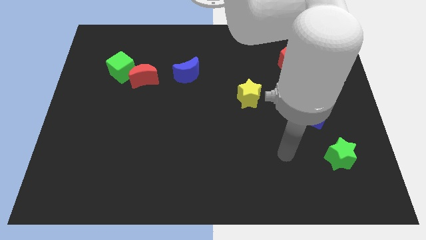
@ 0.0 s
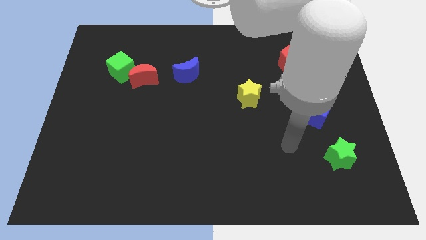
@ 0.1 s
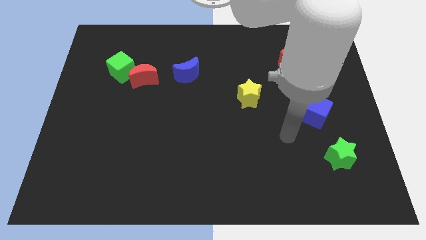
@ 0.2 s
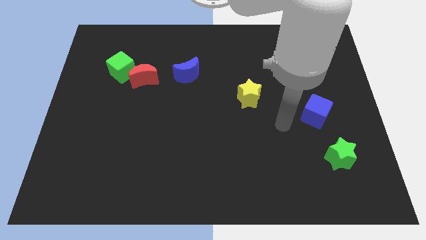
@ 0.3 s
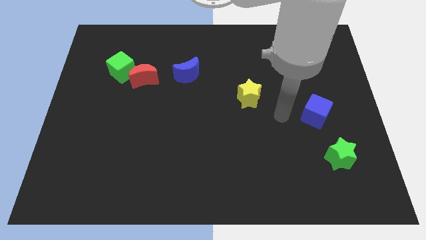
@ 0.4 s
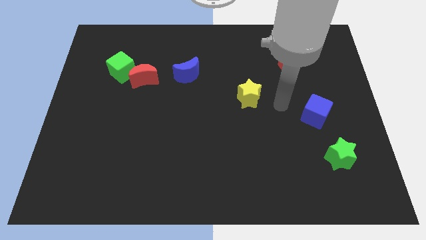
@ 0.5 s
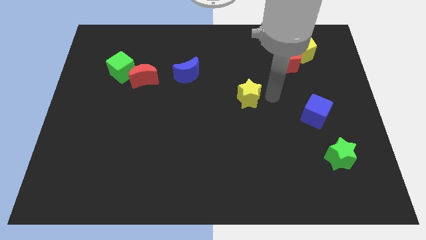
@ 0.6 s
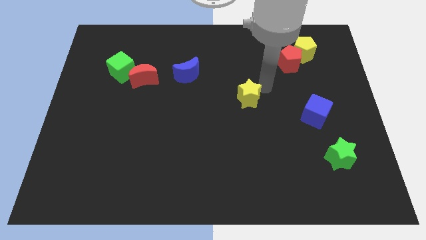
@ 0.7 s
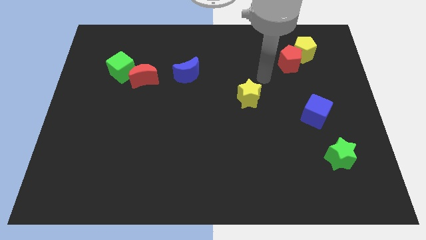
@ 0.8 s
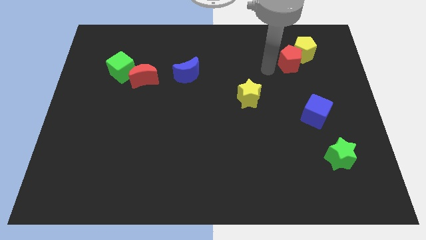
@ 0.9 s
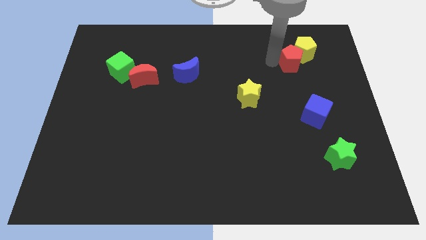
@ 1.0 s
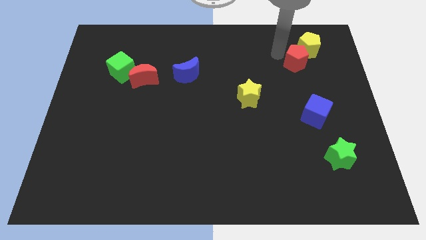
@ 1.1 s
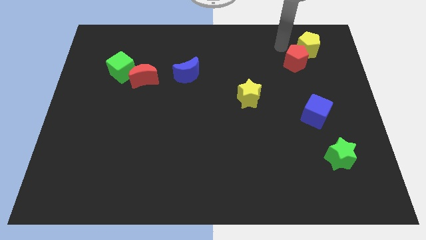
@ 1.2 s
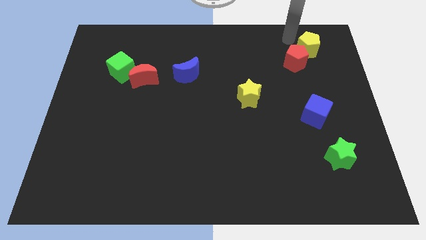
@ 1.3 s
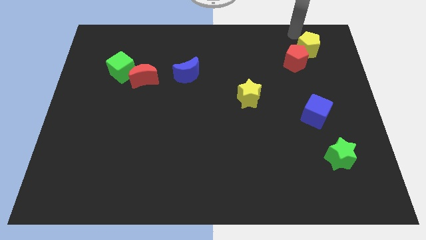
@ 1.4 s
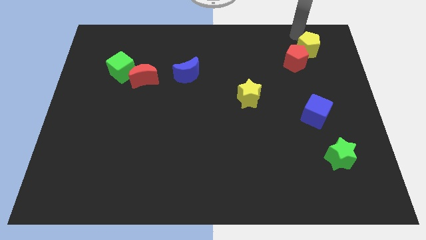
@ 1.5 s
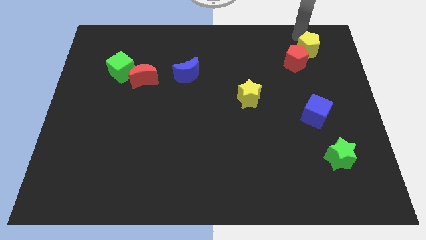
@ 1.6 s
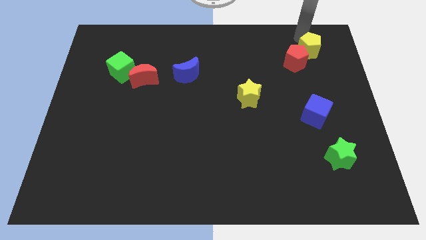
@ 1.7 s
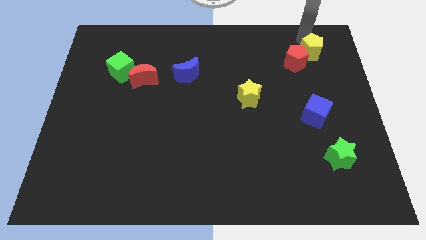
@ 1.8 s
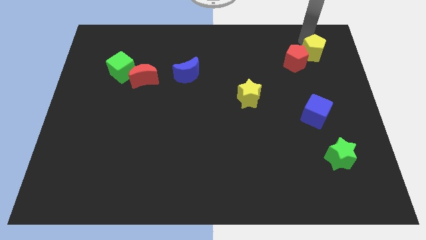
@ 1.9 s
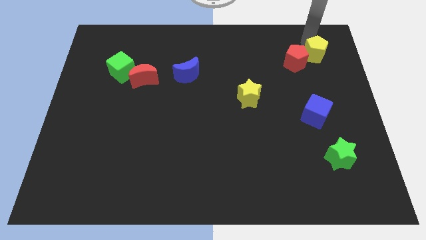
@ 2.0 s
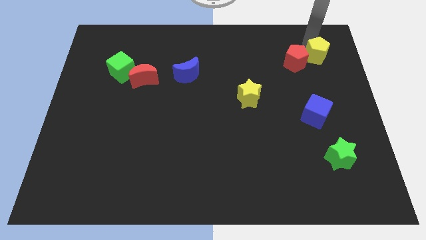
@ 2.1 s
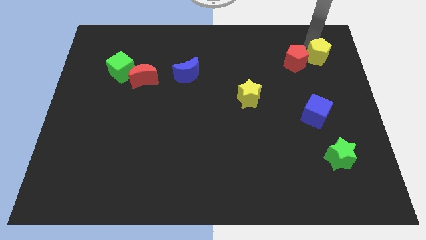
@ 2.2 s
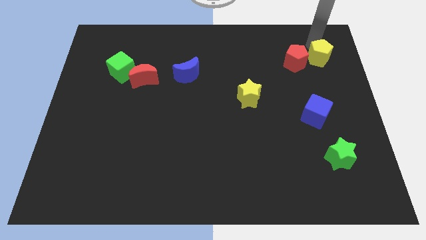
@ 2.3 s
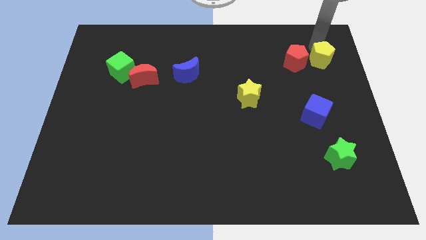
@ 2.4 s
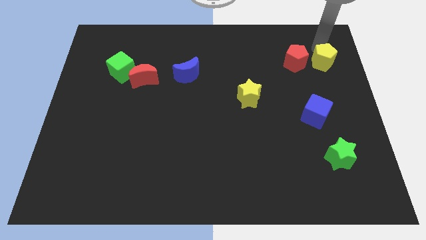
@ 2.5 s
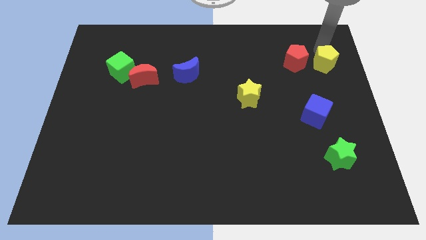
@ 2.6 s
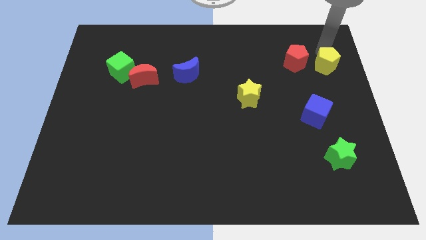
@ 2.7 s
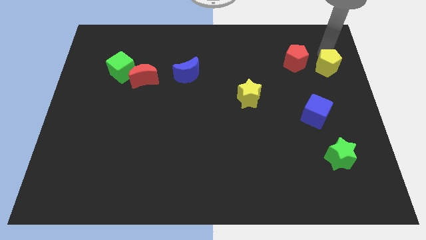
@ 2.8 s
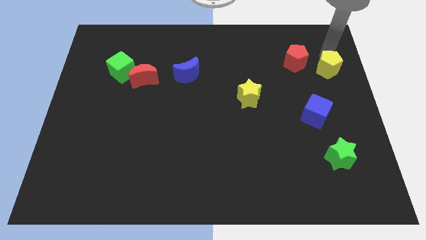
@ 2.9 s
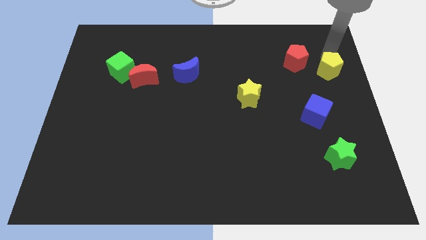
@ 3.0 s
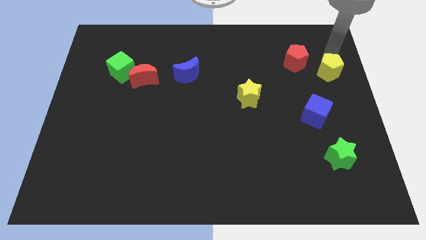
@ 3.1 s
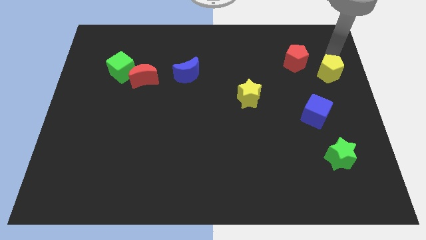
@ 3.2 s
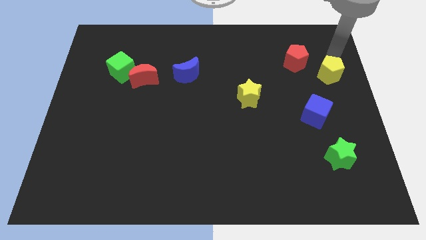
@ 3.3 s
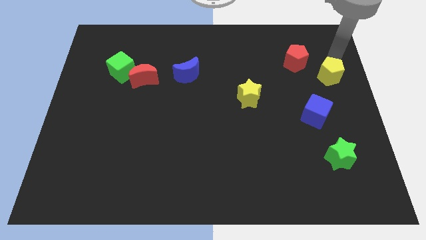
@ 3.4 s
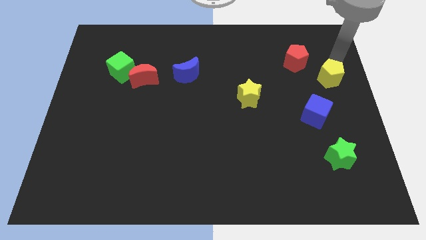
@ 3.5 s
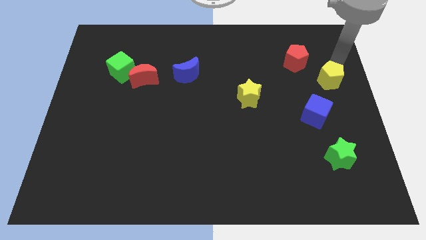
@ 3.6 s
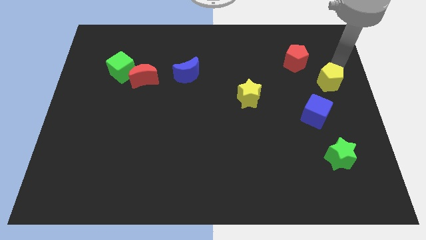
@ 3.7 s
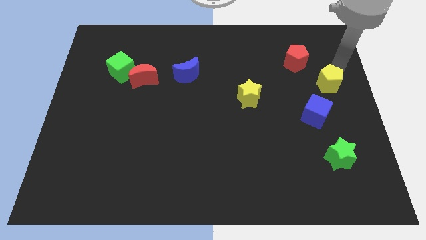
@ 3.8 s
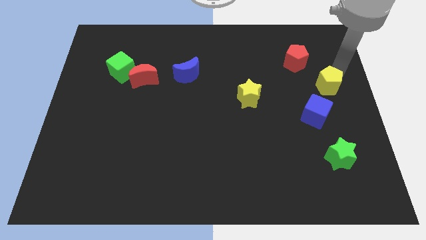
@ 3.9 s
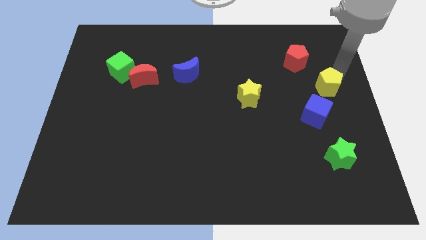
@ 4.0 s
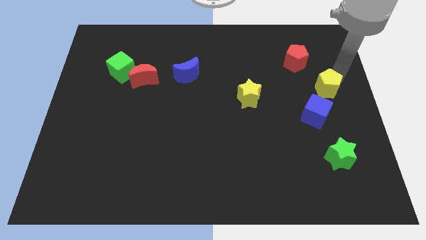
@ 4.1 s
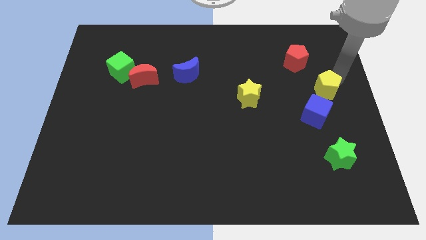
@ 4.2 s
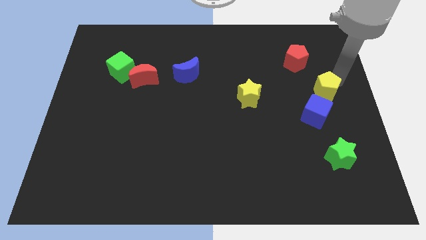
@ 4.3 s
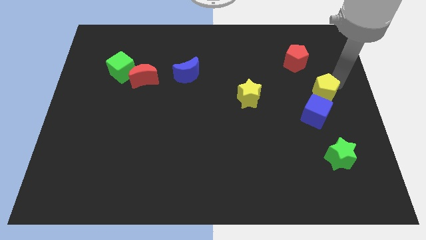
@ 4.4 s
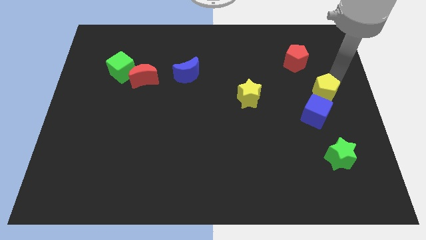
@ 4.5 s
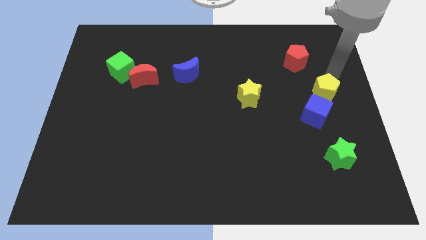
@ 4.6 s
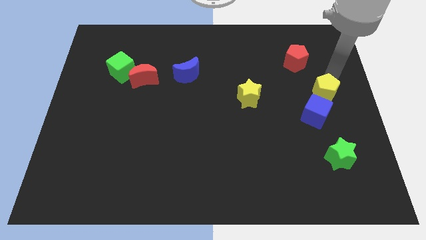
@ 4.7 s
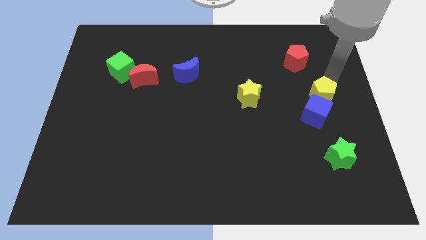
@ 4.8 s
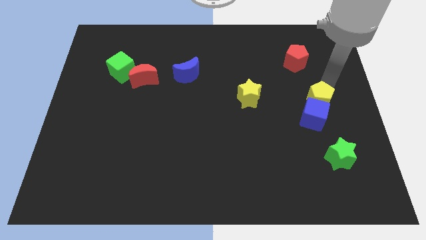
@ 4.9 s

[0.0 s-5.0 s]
slide the yellow pentagon close to the blue cube

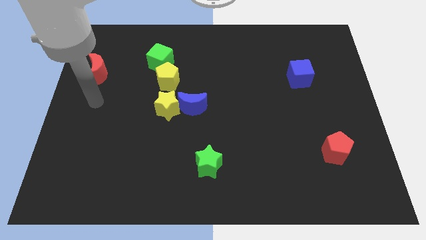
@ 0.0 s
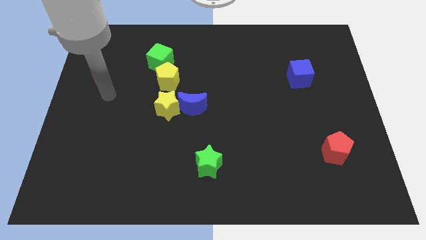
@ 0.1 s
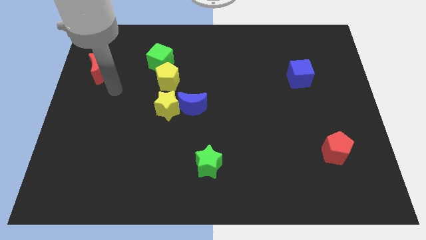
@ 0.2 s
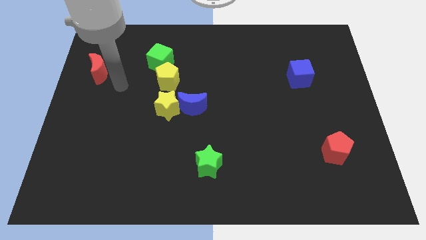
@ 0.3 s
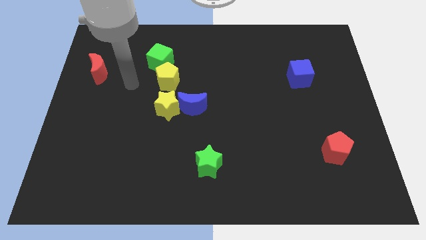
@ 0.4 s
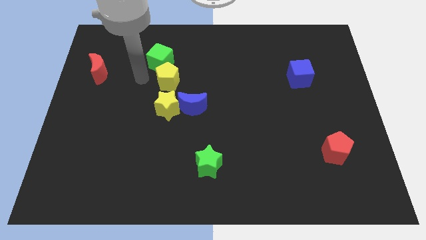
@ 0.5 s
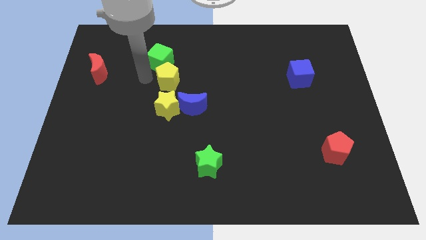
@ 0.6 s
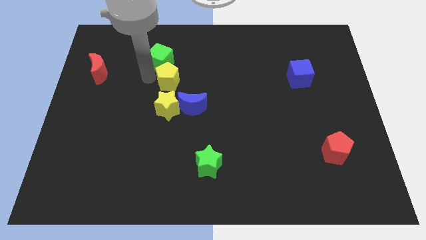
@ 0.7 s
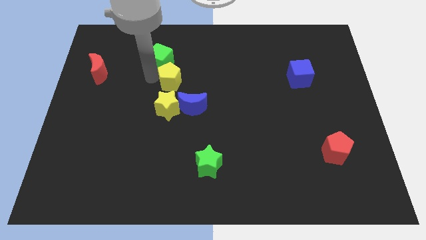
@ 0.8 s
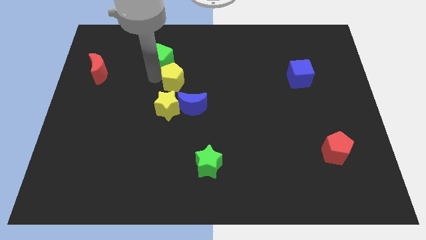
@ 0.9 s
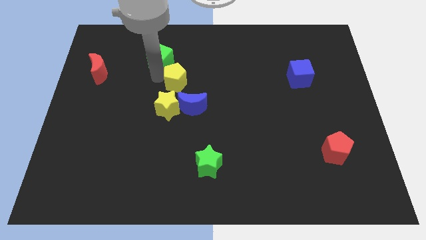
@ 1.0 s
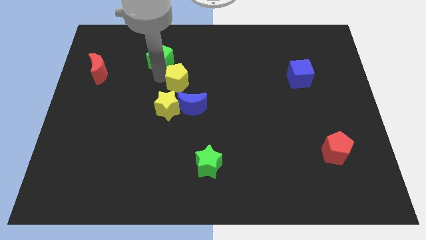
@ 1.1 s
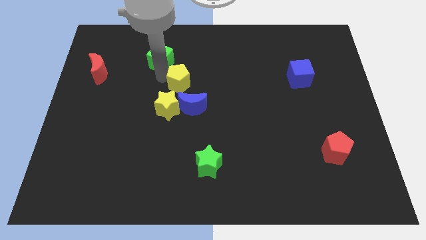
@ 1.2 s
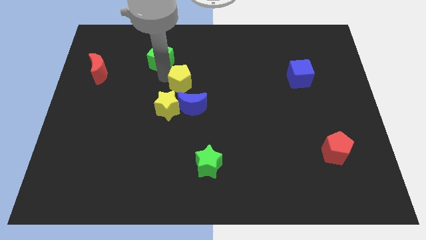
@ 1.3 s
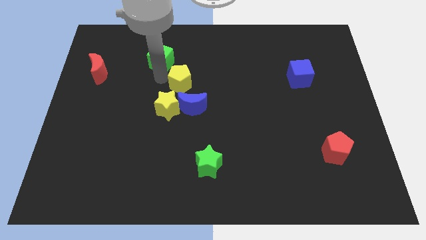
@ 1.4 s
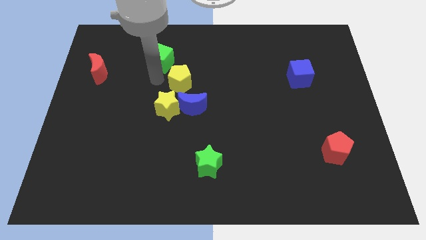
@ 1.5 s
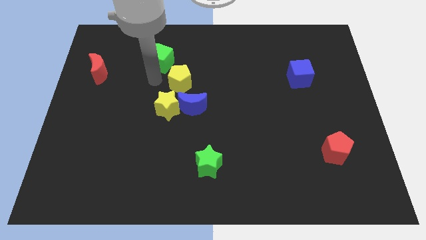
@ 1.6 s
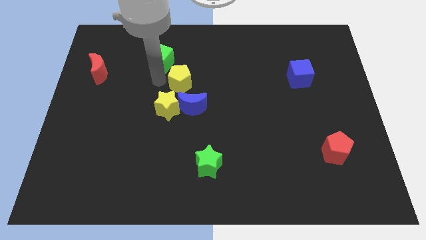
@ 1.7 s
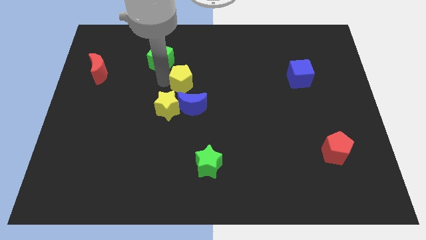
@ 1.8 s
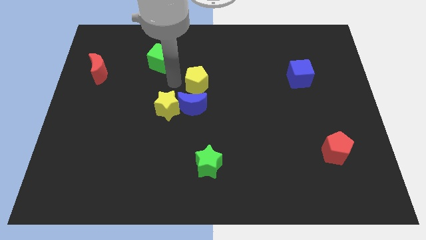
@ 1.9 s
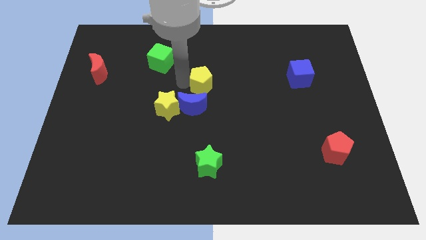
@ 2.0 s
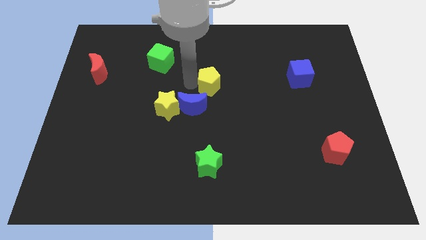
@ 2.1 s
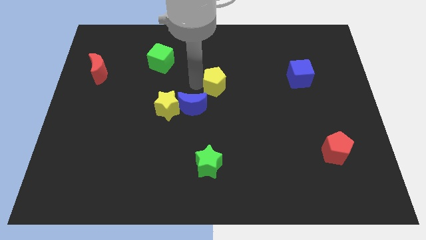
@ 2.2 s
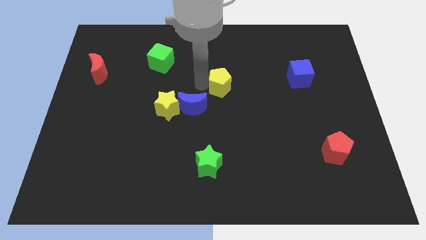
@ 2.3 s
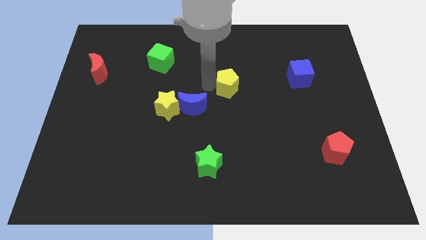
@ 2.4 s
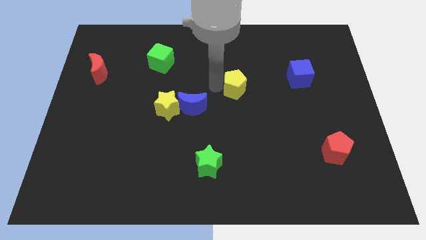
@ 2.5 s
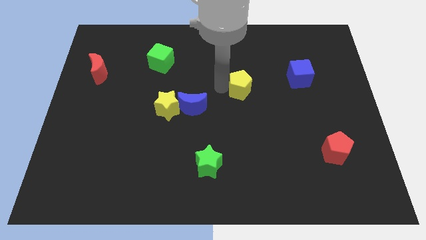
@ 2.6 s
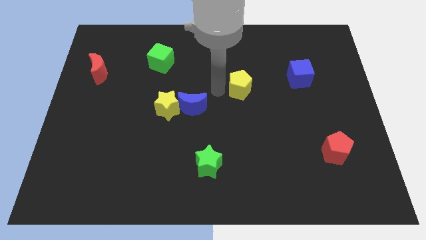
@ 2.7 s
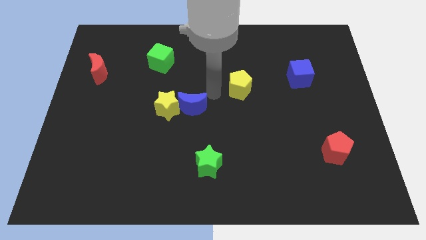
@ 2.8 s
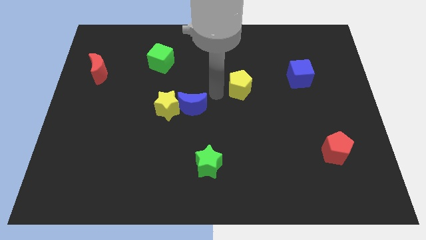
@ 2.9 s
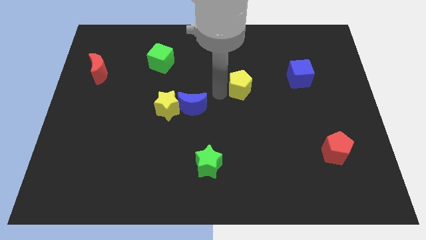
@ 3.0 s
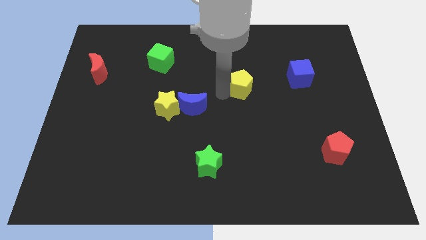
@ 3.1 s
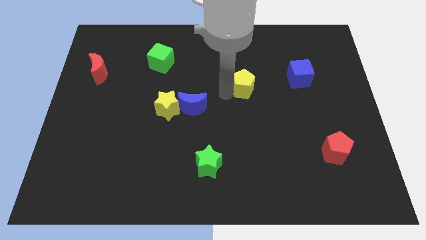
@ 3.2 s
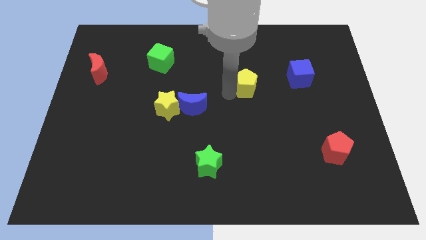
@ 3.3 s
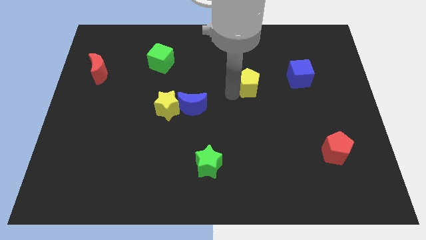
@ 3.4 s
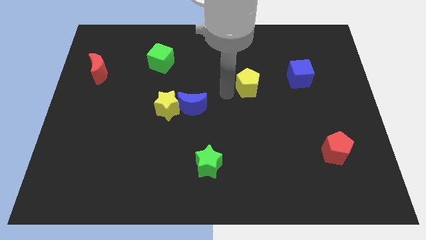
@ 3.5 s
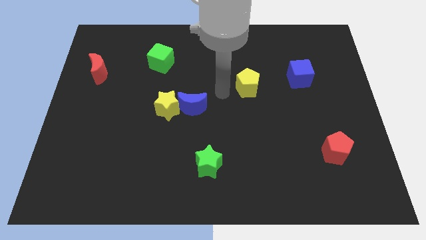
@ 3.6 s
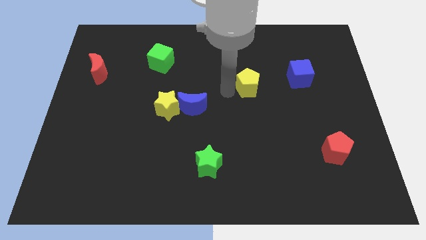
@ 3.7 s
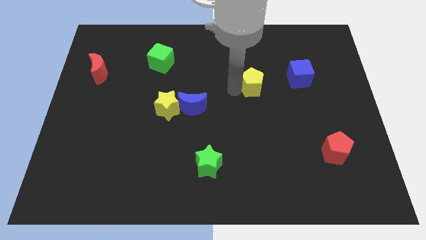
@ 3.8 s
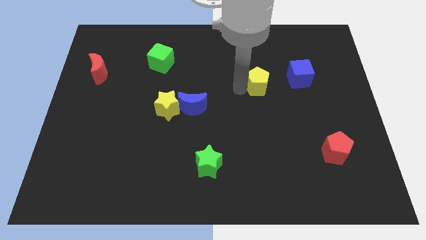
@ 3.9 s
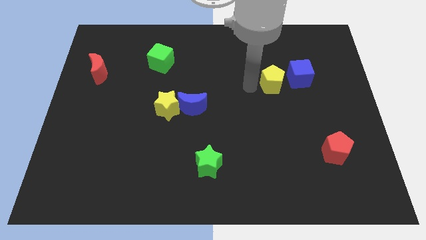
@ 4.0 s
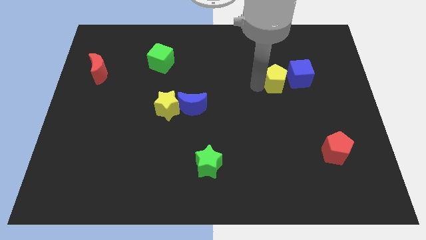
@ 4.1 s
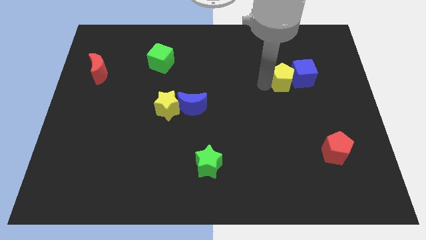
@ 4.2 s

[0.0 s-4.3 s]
push the yellow pentagon to the blue cube
